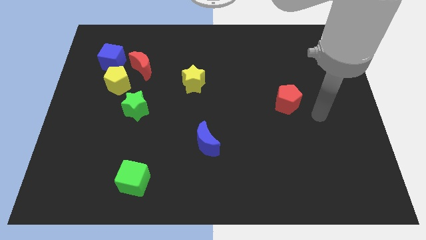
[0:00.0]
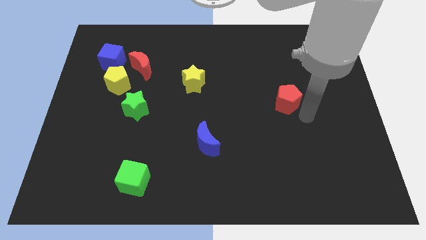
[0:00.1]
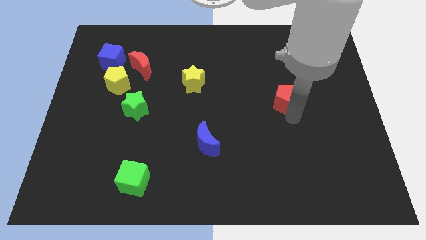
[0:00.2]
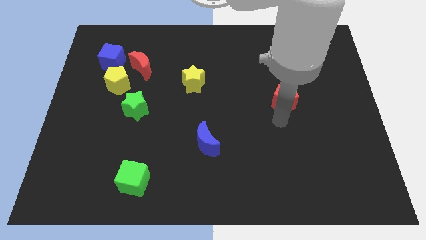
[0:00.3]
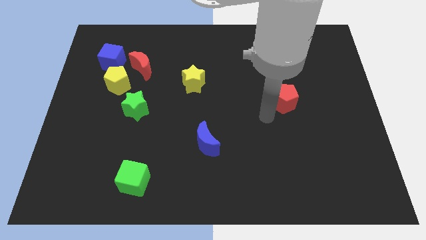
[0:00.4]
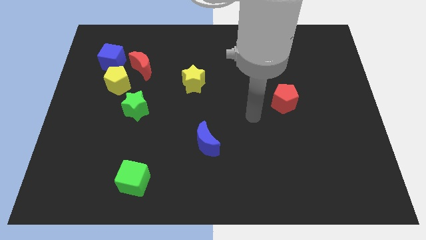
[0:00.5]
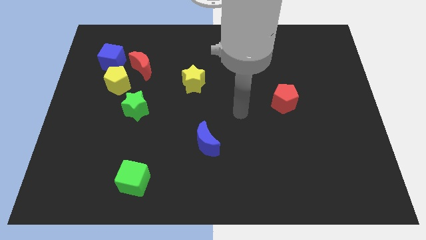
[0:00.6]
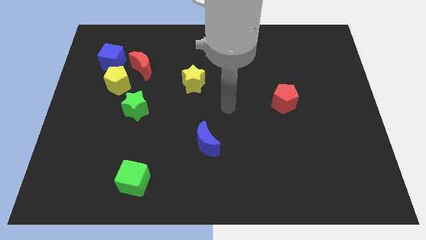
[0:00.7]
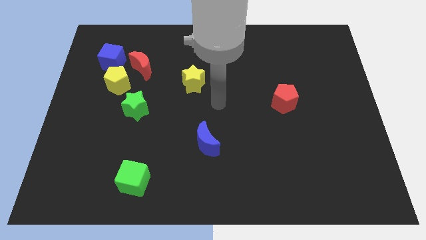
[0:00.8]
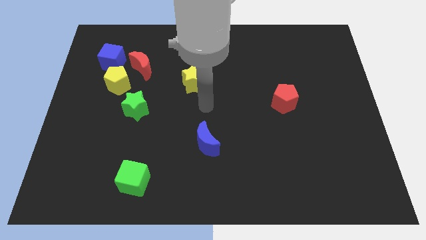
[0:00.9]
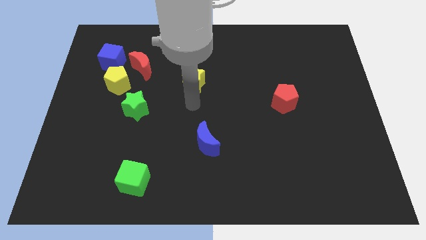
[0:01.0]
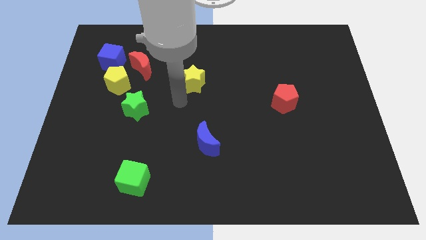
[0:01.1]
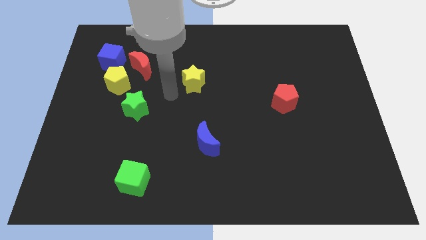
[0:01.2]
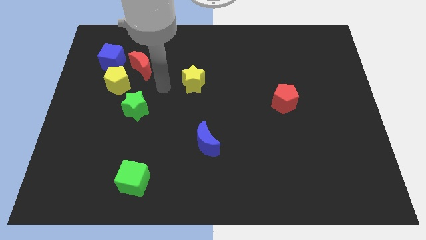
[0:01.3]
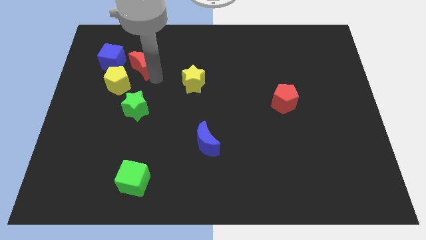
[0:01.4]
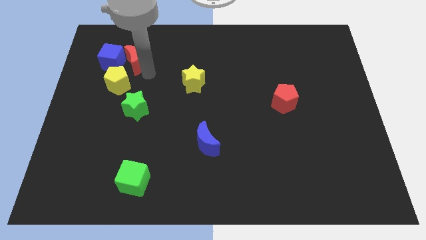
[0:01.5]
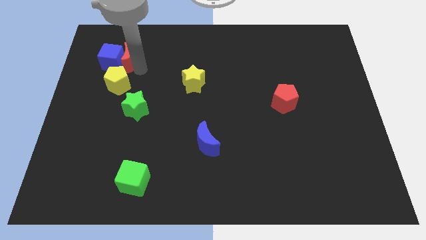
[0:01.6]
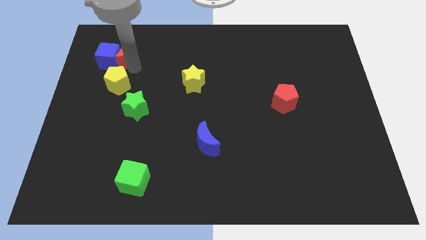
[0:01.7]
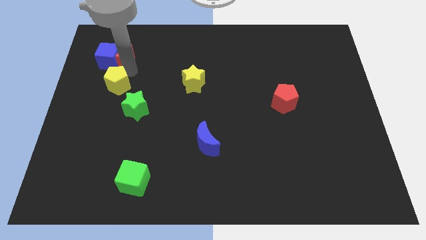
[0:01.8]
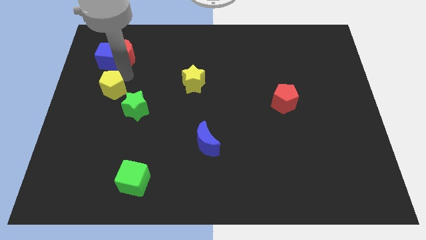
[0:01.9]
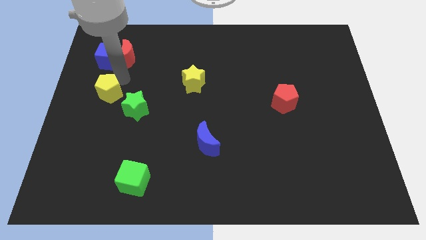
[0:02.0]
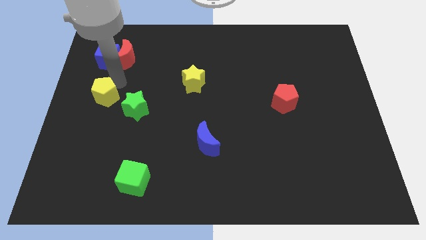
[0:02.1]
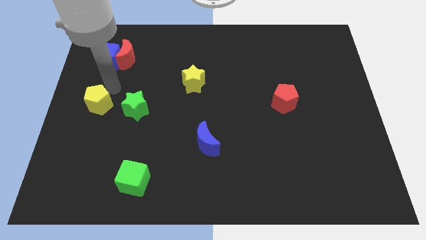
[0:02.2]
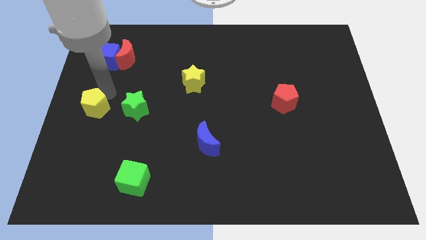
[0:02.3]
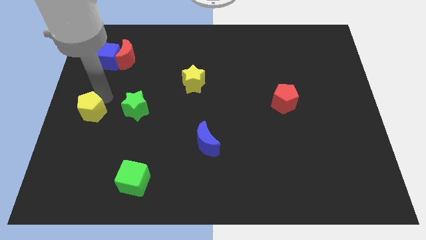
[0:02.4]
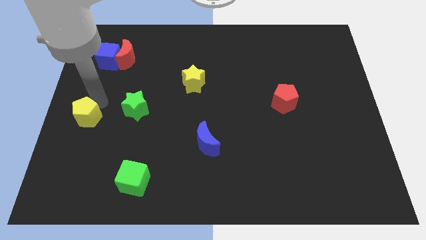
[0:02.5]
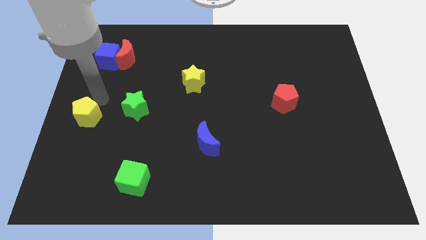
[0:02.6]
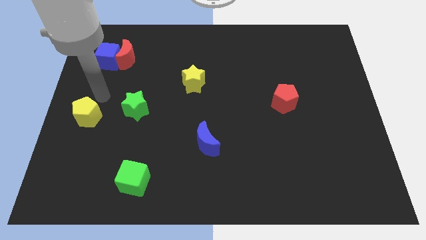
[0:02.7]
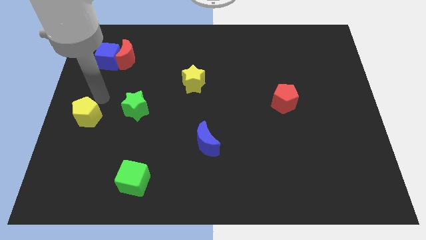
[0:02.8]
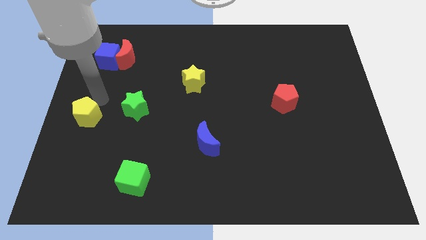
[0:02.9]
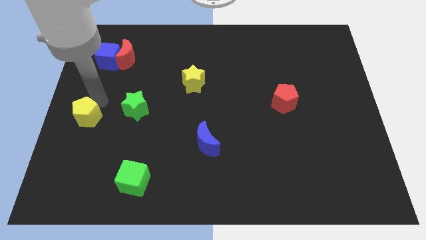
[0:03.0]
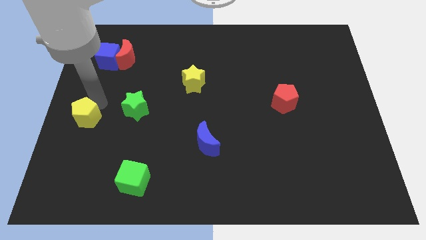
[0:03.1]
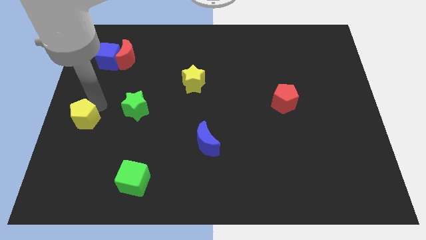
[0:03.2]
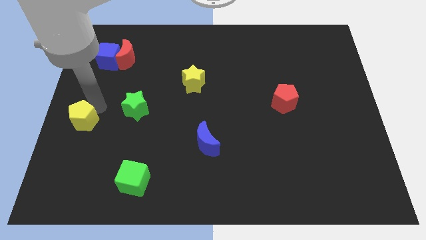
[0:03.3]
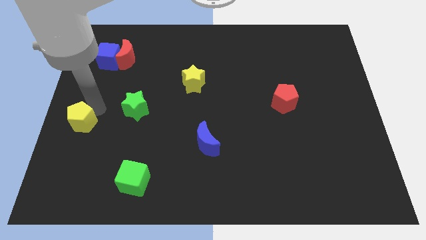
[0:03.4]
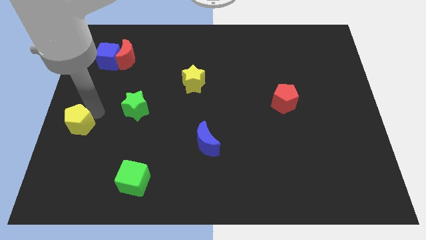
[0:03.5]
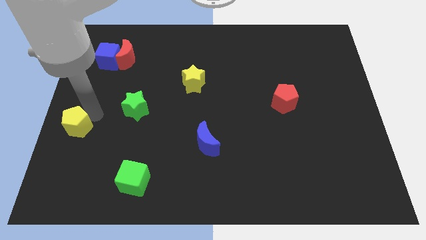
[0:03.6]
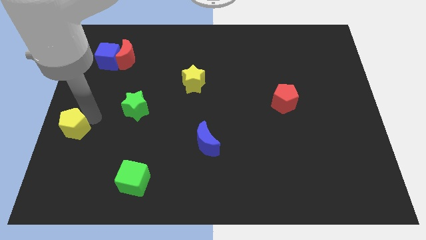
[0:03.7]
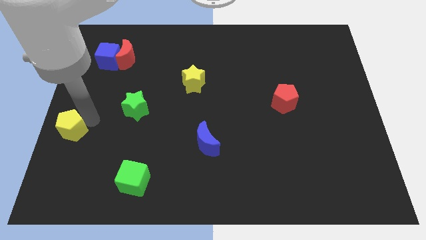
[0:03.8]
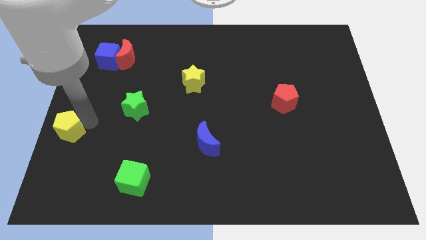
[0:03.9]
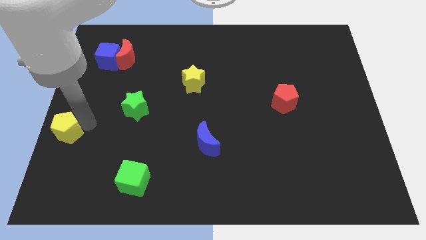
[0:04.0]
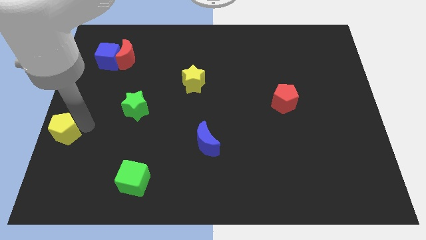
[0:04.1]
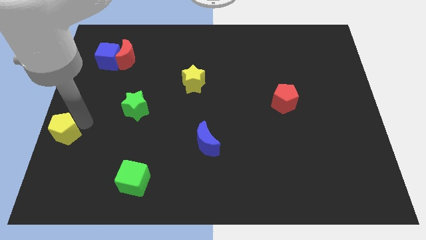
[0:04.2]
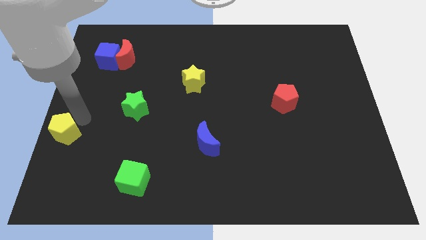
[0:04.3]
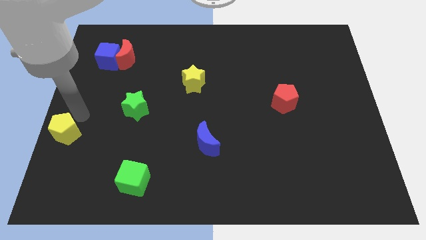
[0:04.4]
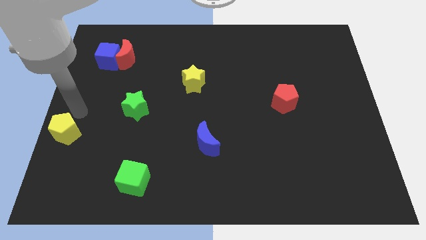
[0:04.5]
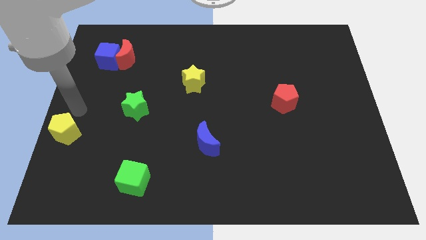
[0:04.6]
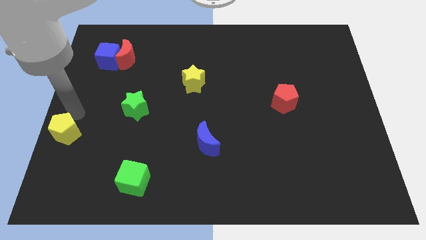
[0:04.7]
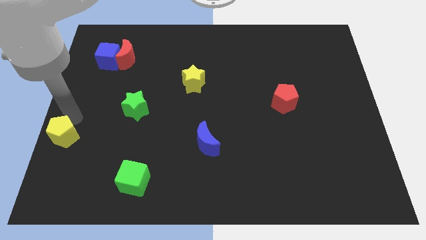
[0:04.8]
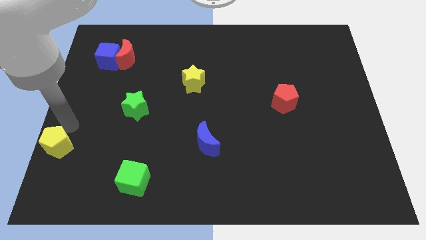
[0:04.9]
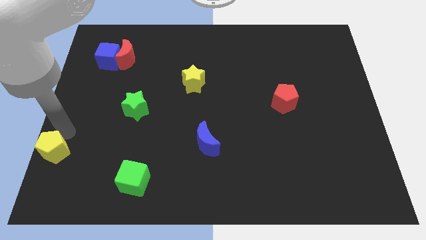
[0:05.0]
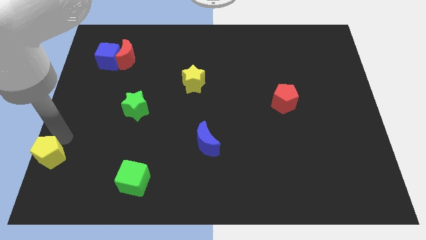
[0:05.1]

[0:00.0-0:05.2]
slide the yellow pentagon to the lower left corner

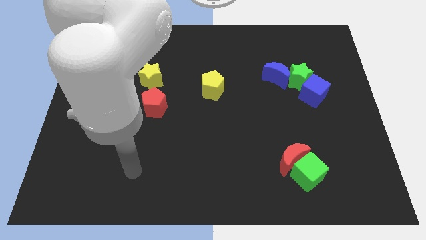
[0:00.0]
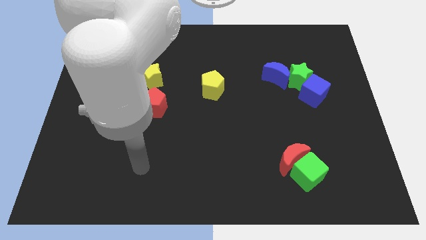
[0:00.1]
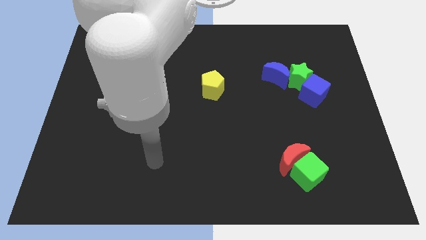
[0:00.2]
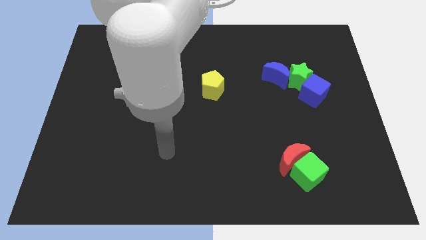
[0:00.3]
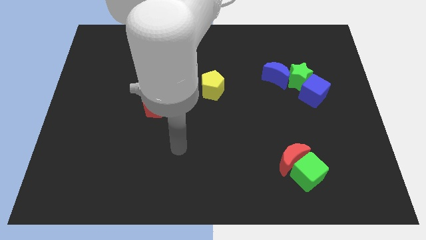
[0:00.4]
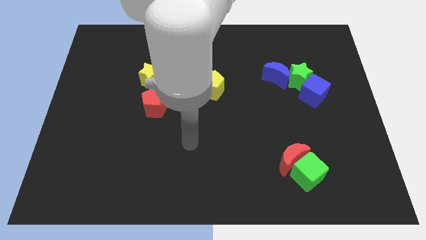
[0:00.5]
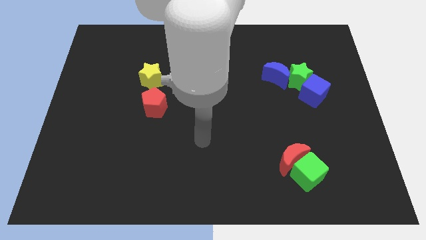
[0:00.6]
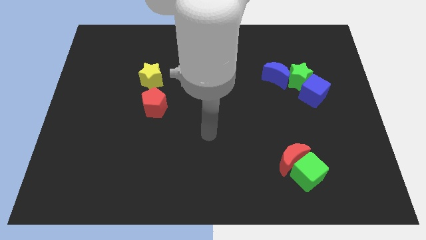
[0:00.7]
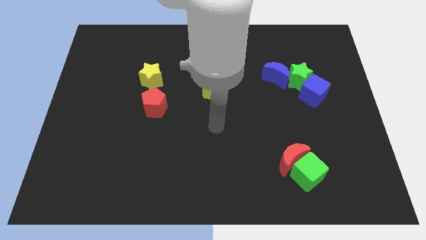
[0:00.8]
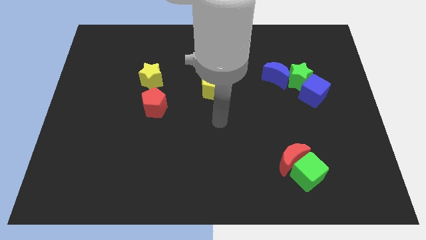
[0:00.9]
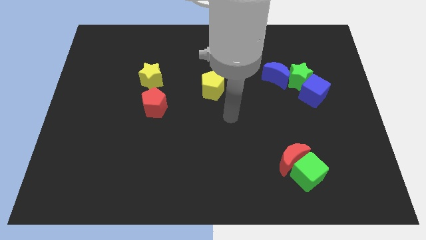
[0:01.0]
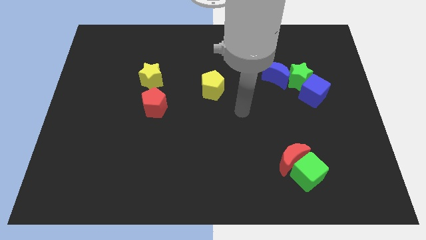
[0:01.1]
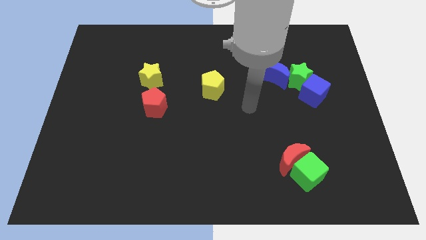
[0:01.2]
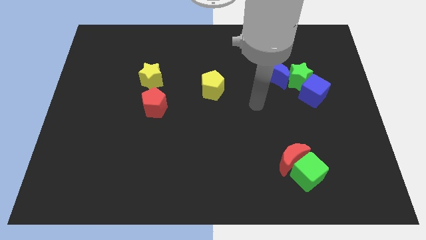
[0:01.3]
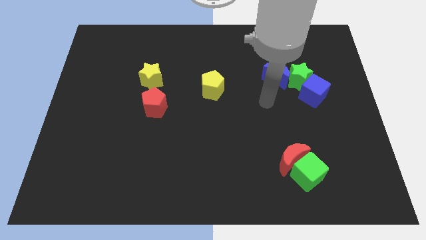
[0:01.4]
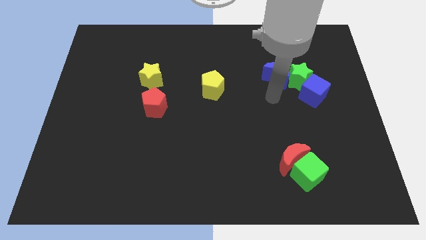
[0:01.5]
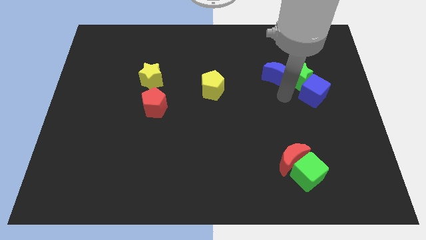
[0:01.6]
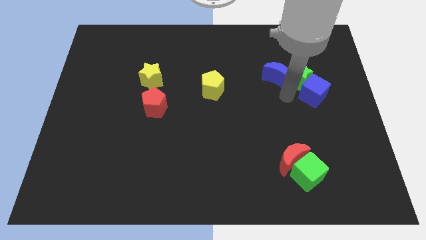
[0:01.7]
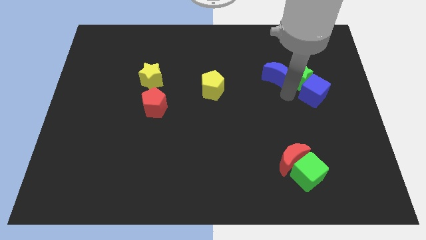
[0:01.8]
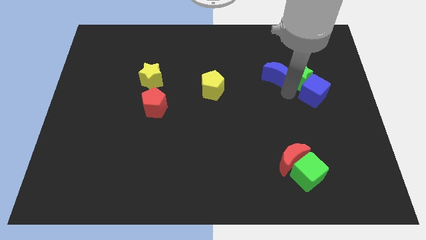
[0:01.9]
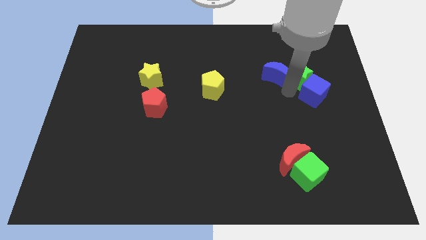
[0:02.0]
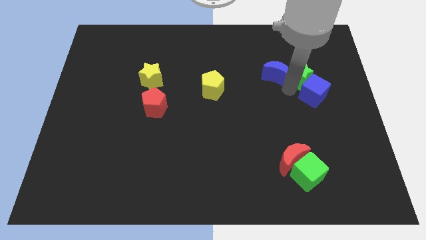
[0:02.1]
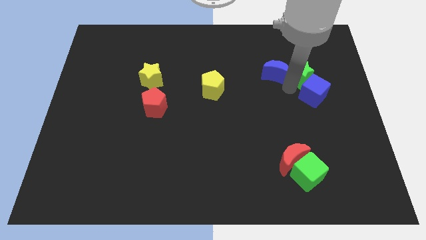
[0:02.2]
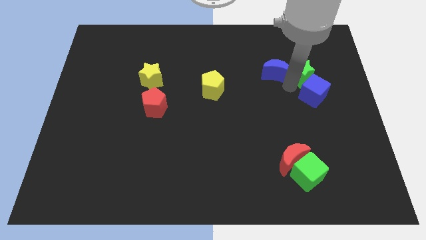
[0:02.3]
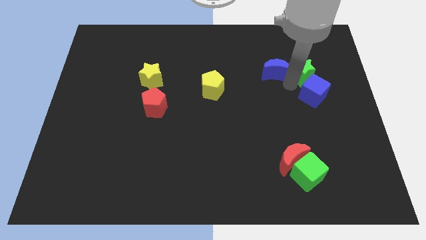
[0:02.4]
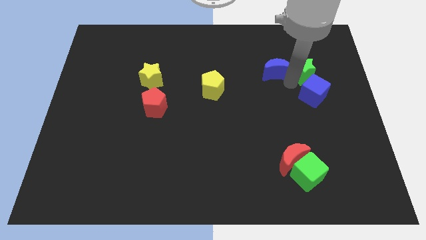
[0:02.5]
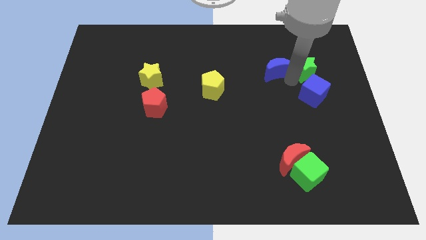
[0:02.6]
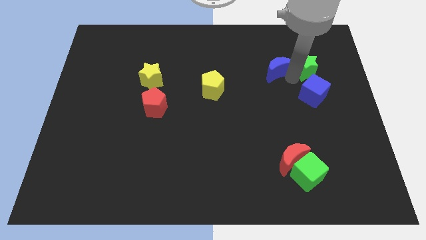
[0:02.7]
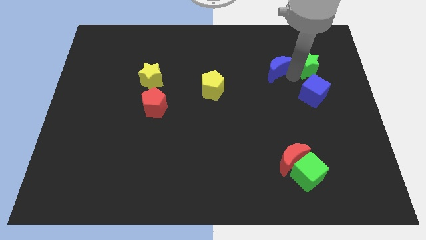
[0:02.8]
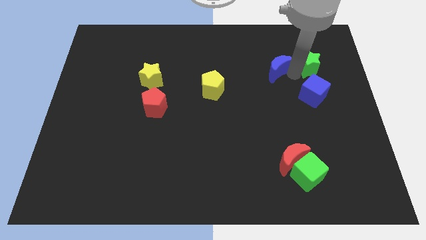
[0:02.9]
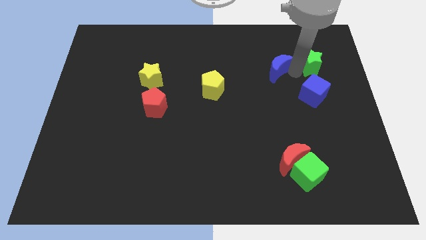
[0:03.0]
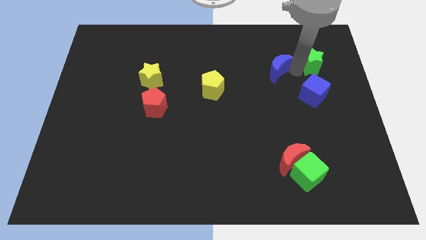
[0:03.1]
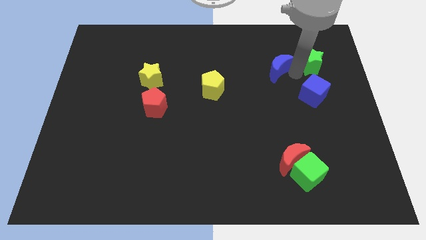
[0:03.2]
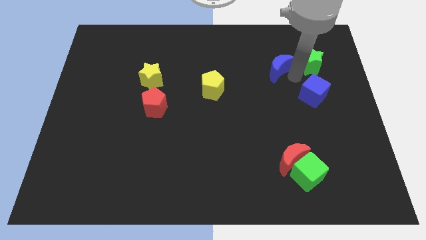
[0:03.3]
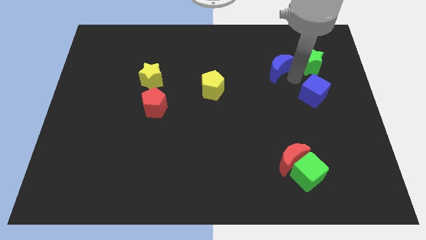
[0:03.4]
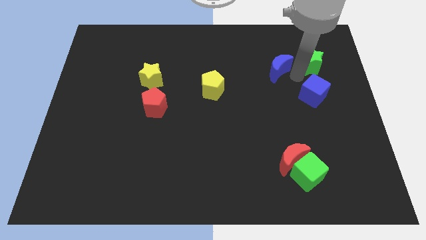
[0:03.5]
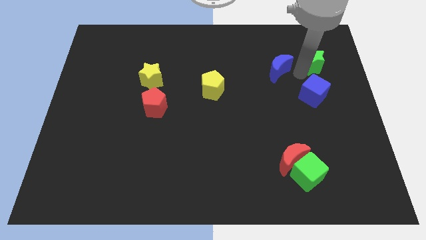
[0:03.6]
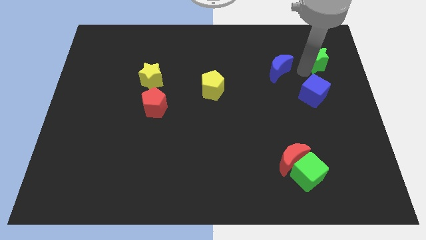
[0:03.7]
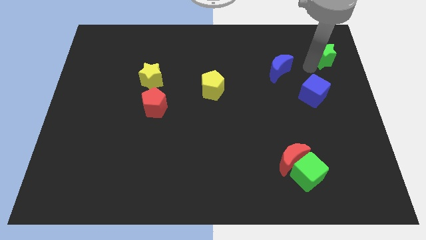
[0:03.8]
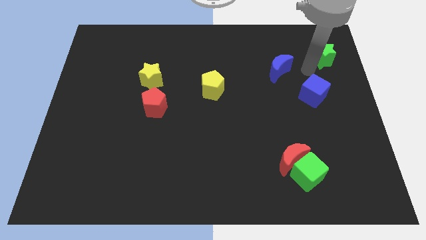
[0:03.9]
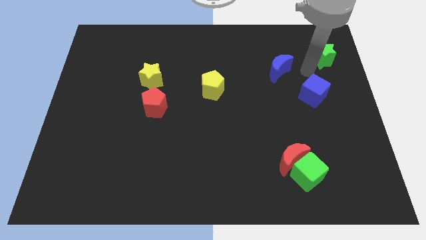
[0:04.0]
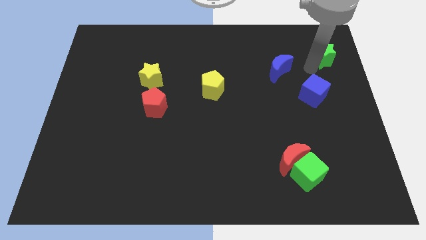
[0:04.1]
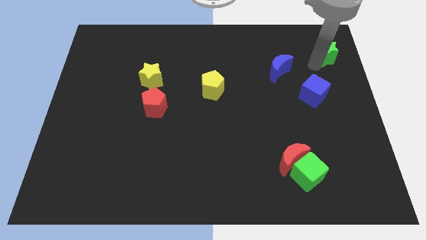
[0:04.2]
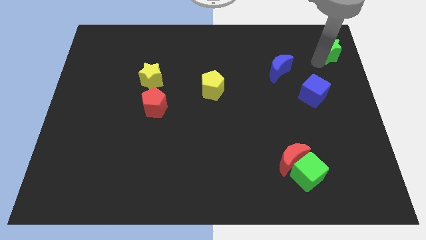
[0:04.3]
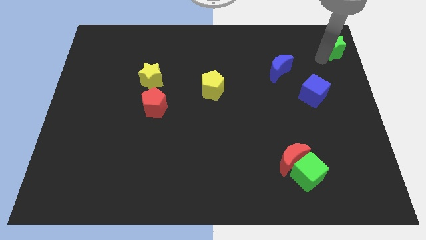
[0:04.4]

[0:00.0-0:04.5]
slide the green star to the top right corner
